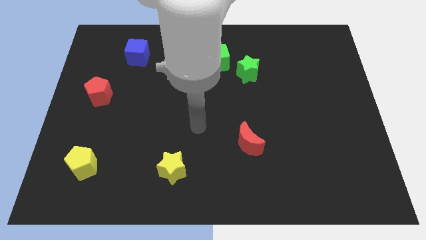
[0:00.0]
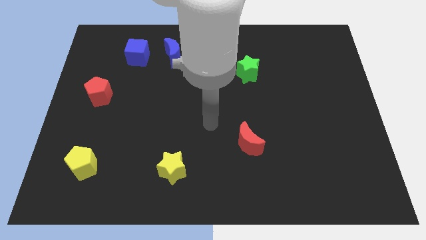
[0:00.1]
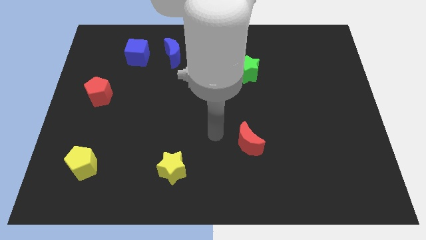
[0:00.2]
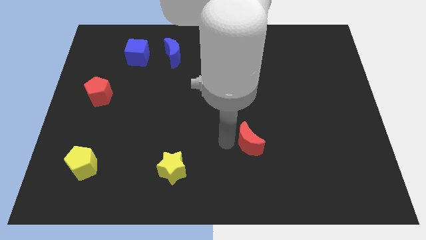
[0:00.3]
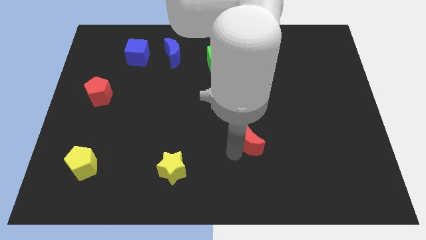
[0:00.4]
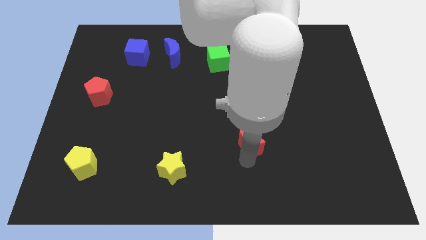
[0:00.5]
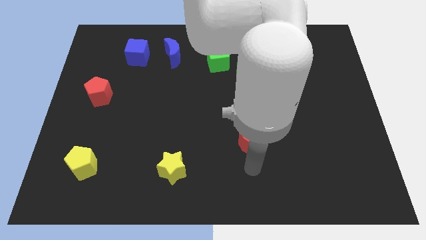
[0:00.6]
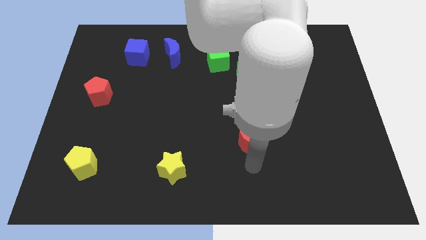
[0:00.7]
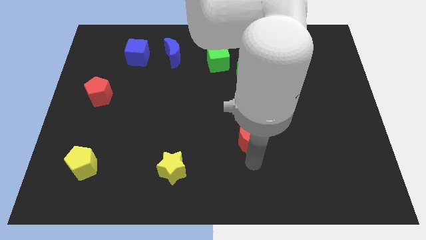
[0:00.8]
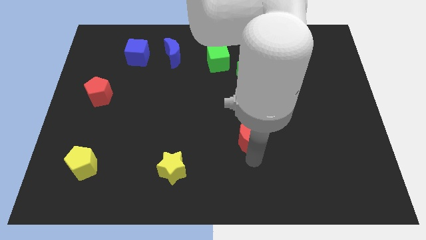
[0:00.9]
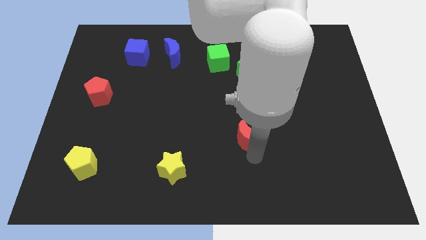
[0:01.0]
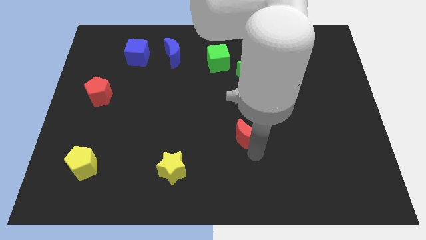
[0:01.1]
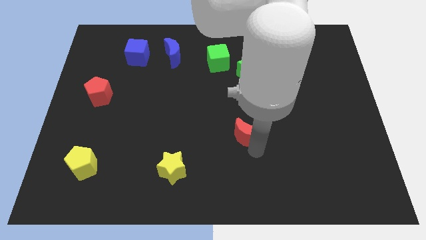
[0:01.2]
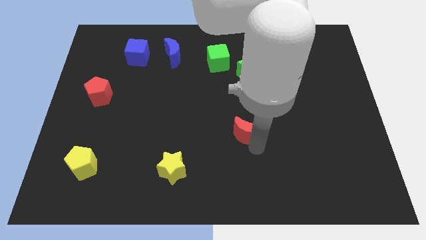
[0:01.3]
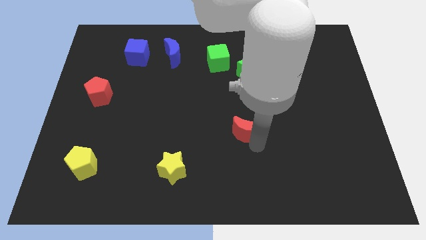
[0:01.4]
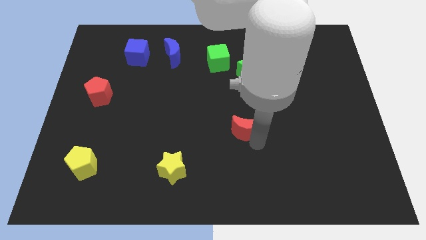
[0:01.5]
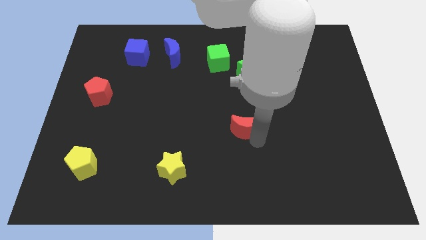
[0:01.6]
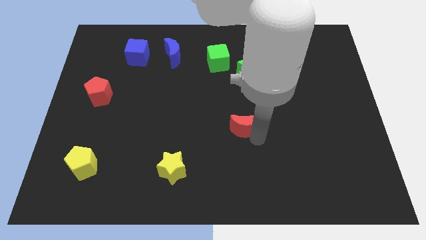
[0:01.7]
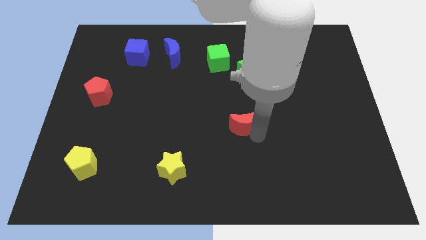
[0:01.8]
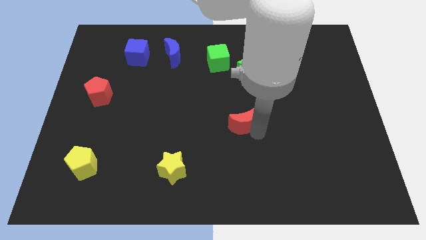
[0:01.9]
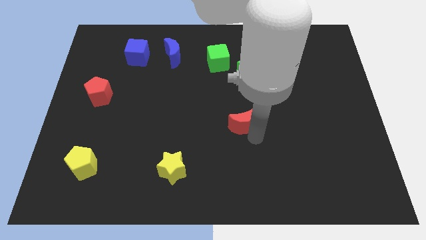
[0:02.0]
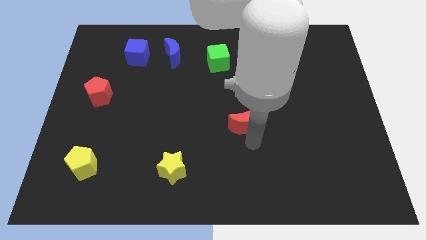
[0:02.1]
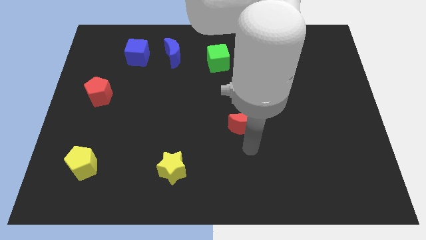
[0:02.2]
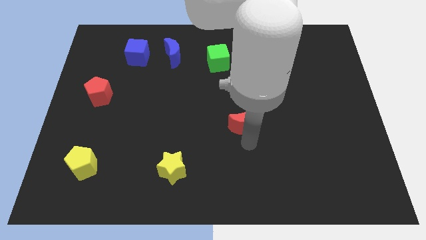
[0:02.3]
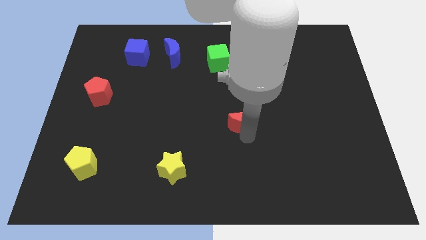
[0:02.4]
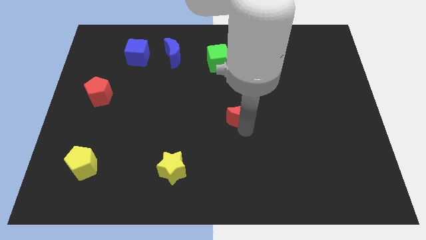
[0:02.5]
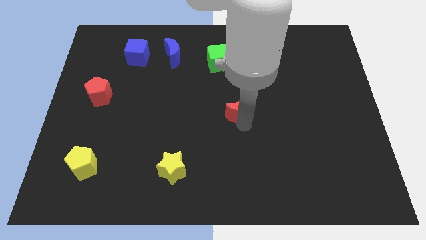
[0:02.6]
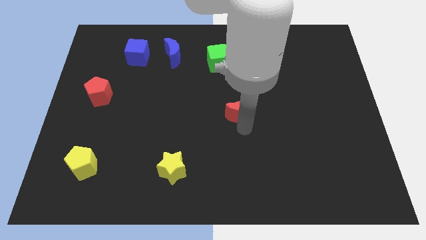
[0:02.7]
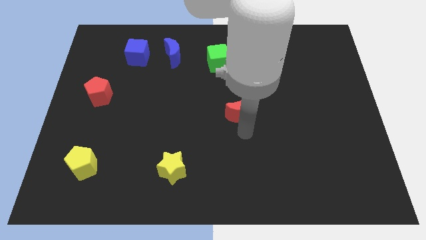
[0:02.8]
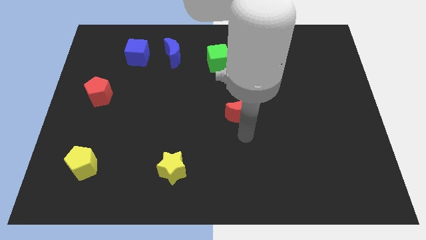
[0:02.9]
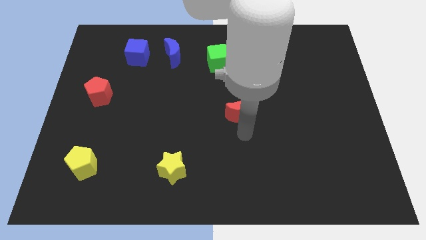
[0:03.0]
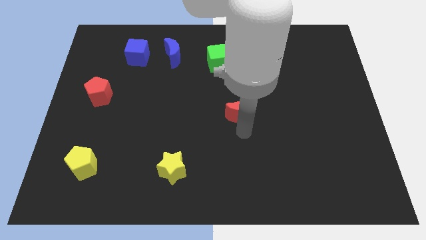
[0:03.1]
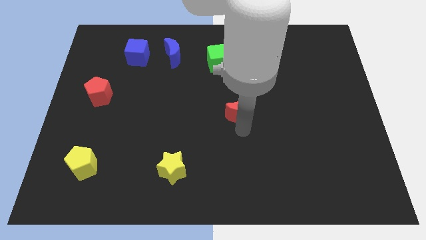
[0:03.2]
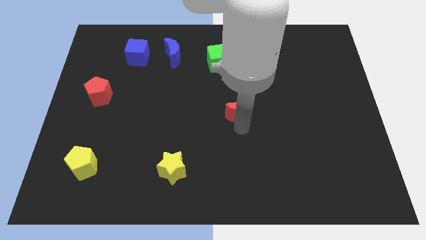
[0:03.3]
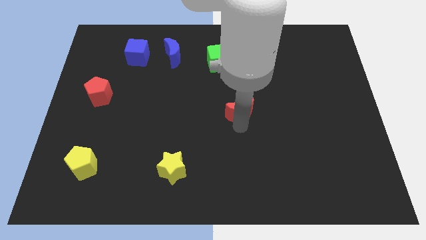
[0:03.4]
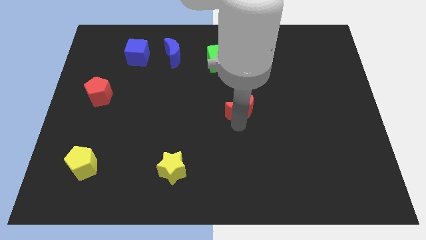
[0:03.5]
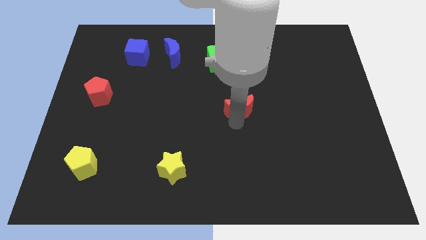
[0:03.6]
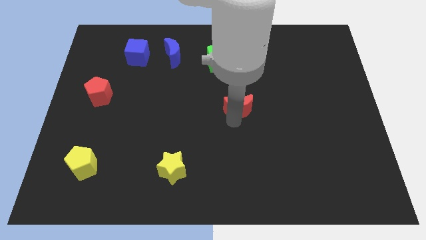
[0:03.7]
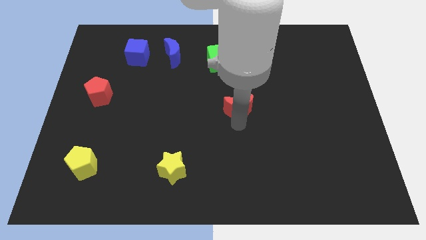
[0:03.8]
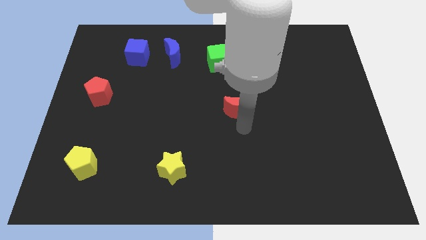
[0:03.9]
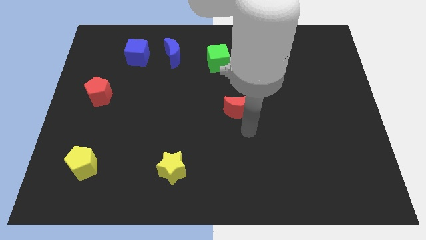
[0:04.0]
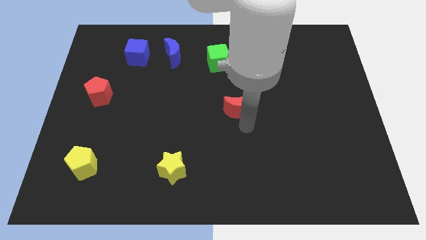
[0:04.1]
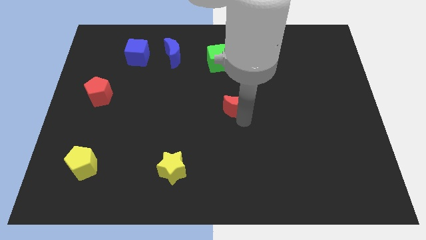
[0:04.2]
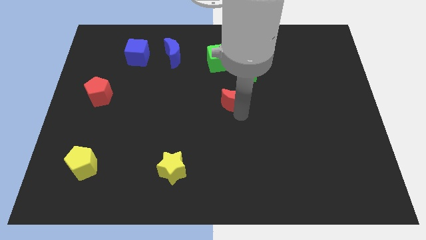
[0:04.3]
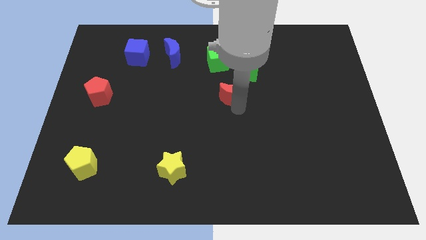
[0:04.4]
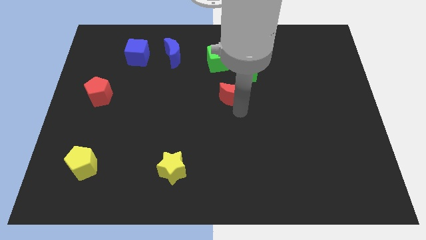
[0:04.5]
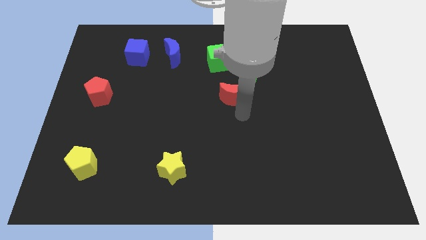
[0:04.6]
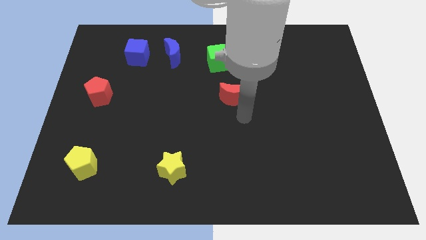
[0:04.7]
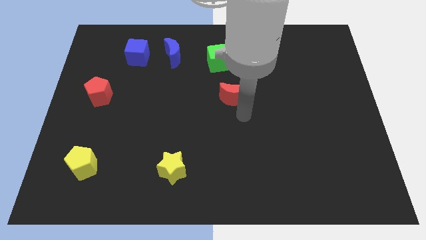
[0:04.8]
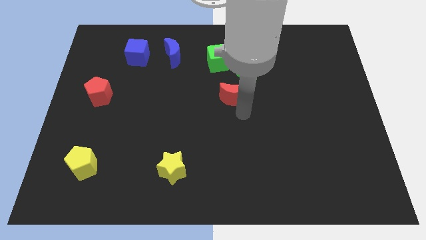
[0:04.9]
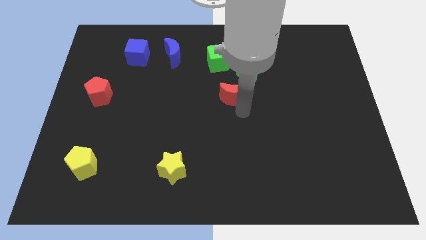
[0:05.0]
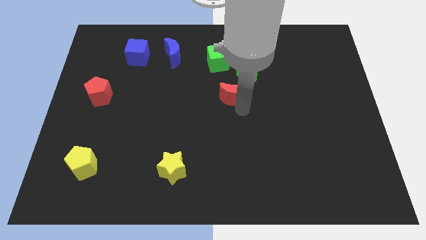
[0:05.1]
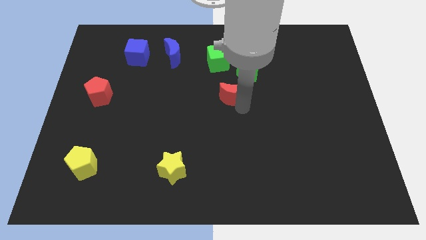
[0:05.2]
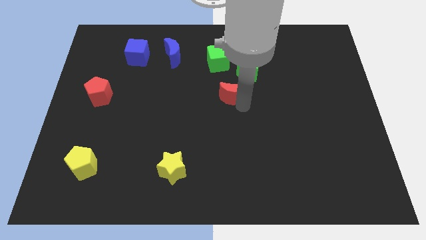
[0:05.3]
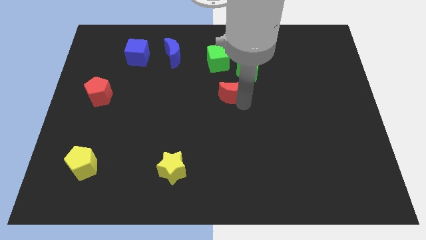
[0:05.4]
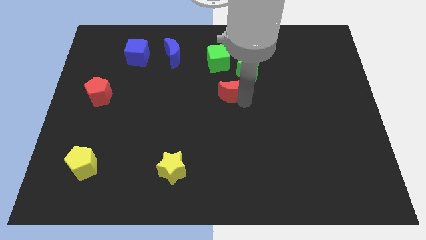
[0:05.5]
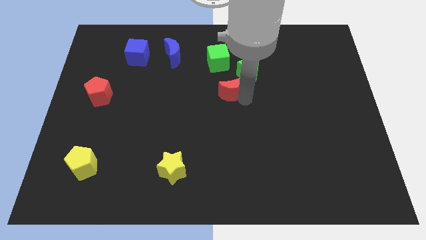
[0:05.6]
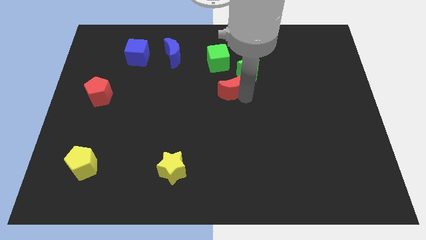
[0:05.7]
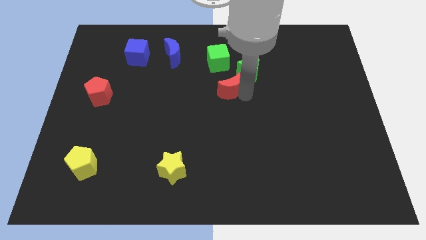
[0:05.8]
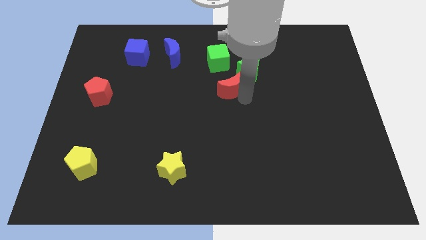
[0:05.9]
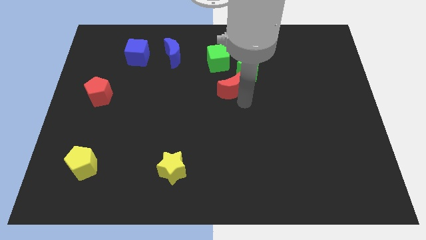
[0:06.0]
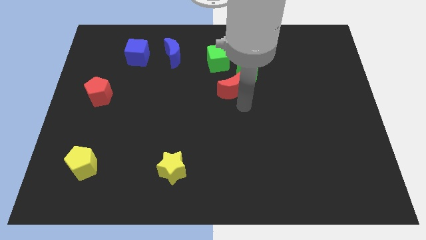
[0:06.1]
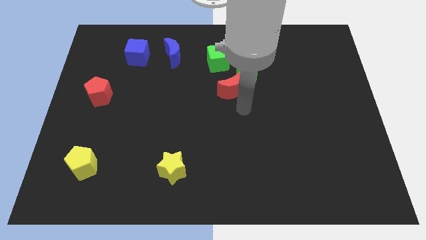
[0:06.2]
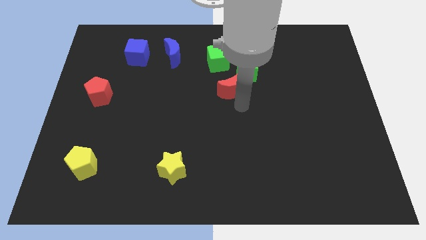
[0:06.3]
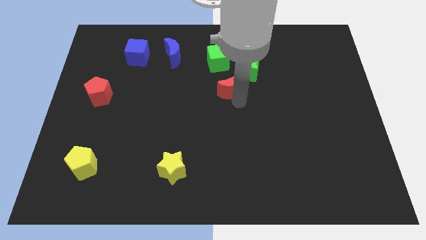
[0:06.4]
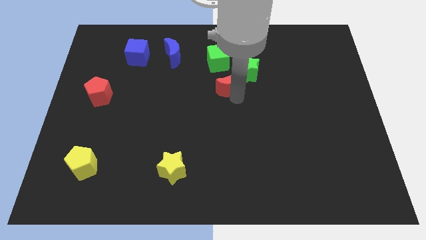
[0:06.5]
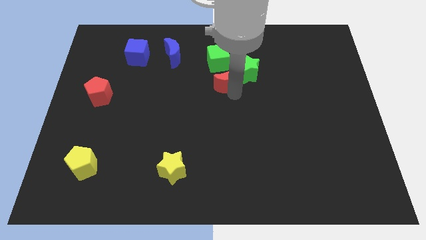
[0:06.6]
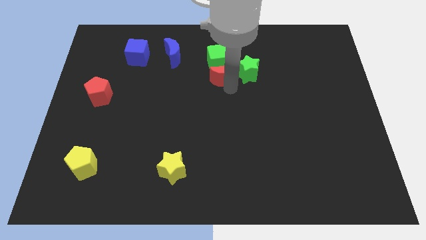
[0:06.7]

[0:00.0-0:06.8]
push the red moon next to the green cube
